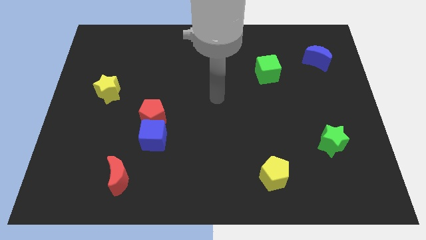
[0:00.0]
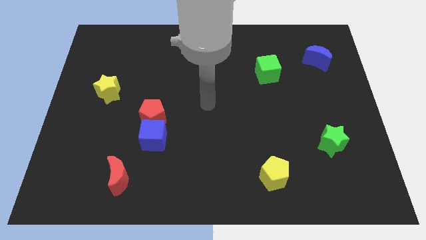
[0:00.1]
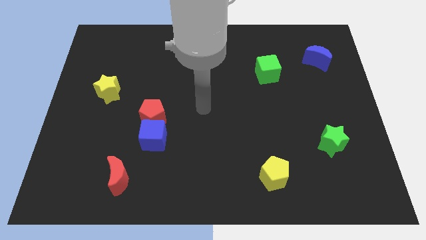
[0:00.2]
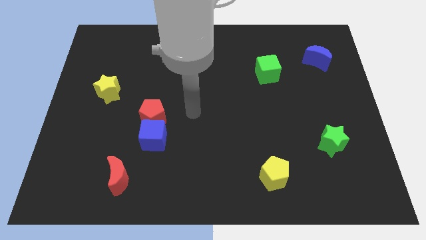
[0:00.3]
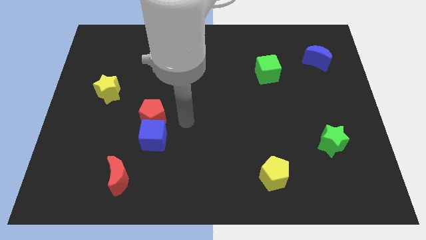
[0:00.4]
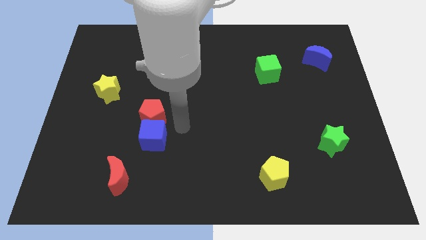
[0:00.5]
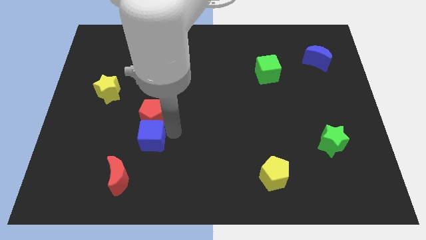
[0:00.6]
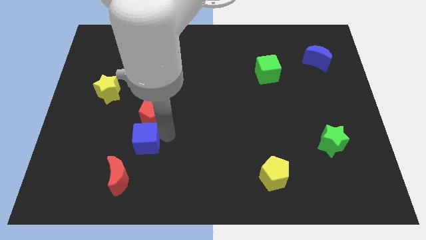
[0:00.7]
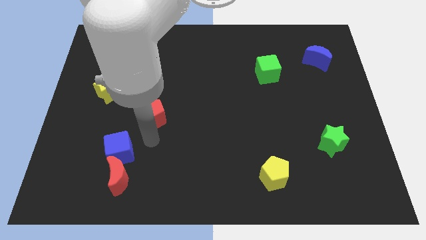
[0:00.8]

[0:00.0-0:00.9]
move the red pentagon away from the blue cube

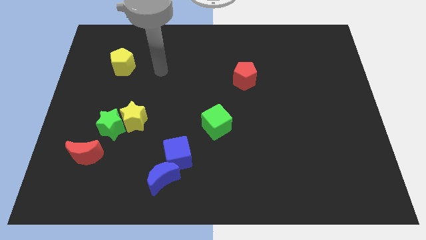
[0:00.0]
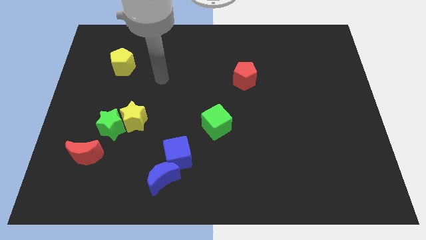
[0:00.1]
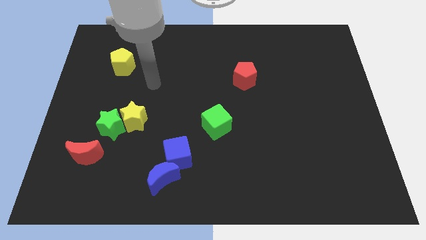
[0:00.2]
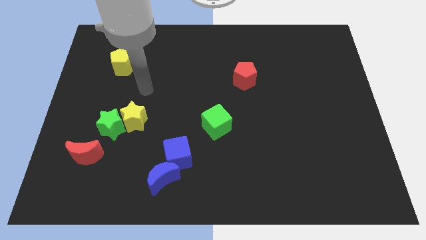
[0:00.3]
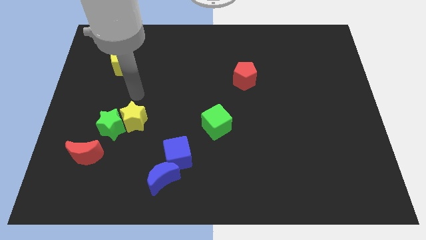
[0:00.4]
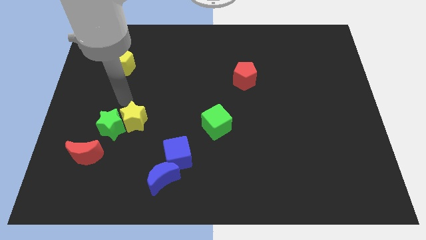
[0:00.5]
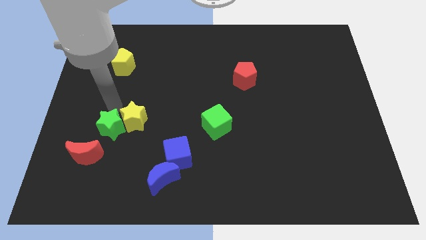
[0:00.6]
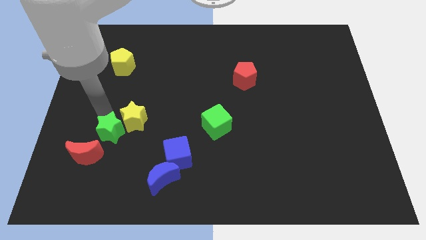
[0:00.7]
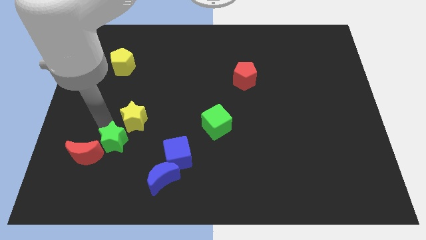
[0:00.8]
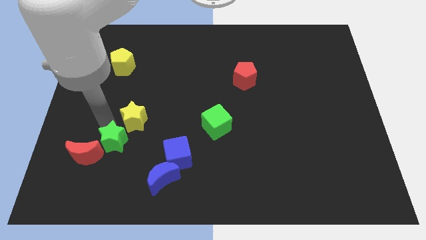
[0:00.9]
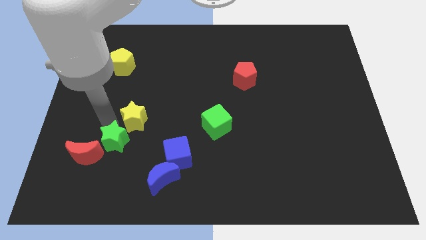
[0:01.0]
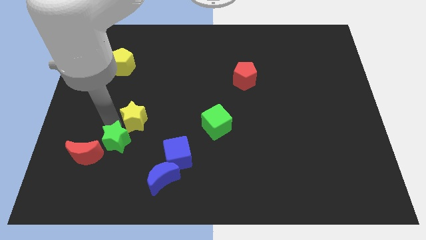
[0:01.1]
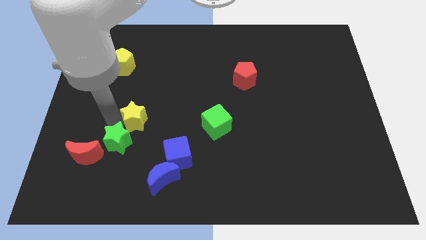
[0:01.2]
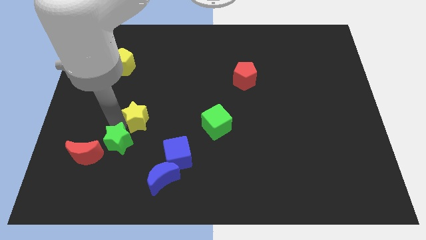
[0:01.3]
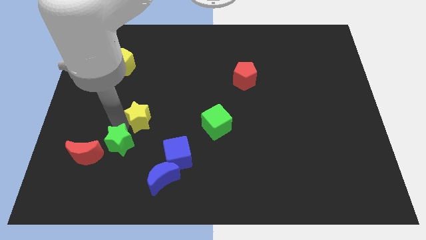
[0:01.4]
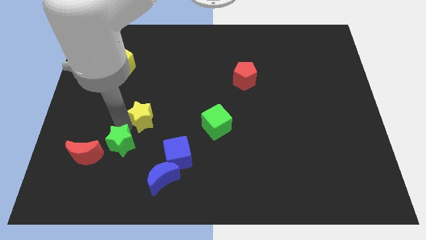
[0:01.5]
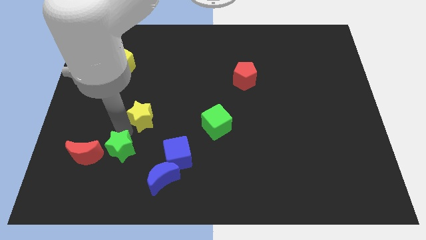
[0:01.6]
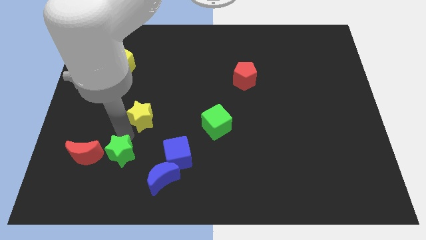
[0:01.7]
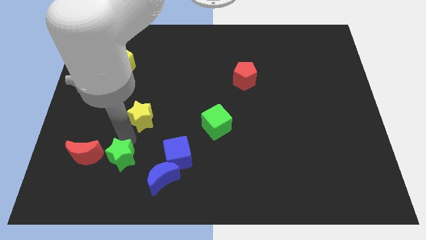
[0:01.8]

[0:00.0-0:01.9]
move the yellow star away from the green star

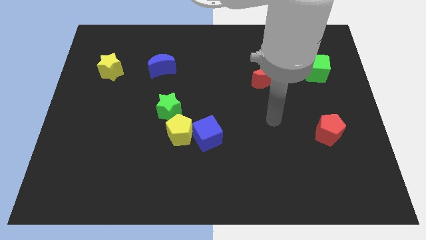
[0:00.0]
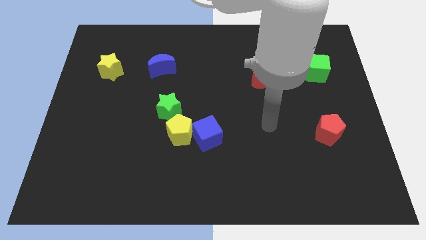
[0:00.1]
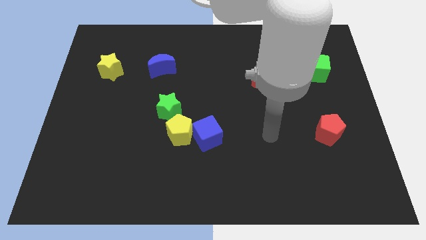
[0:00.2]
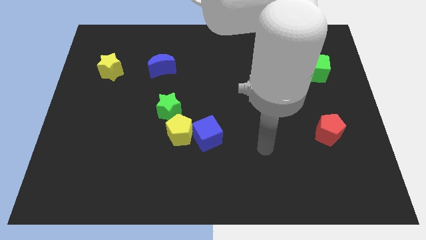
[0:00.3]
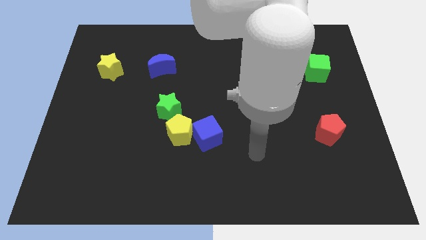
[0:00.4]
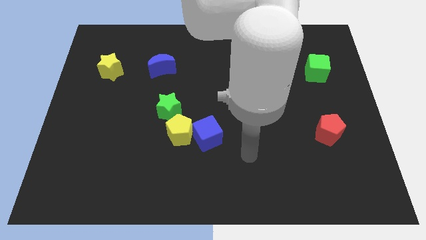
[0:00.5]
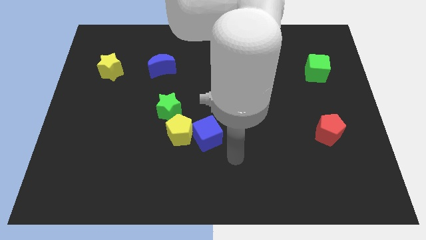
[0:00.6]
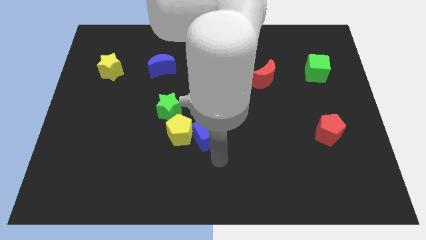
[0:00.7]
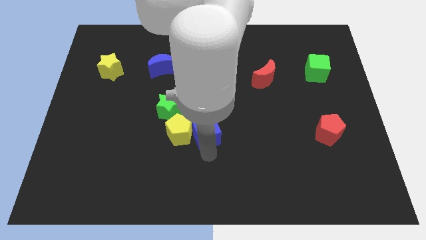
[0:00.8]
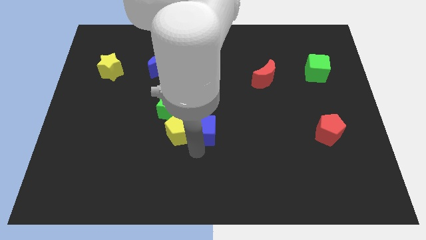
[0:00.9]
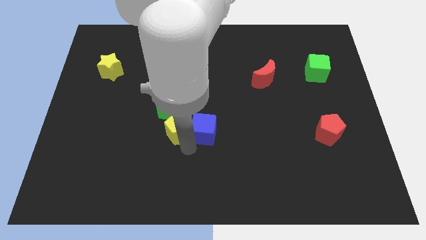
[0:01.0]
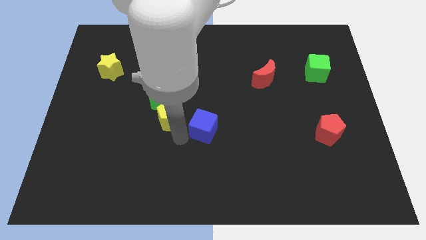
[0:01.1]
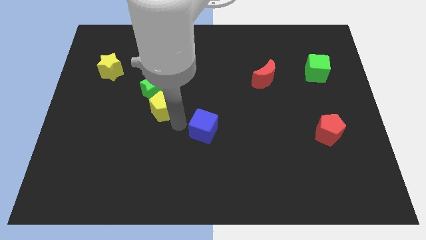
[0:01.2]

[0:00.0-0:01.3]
separate the blue cube from the yellow pentagon

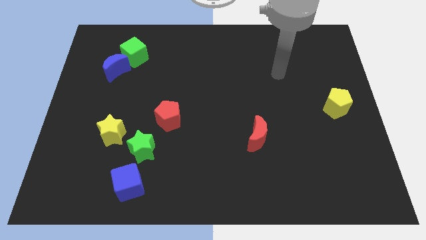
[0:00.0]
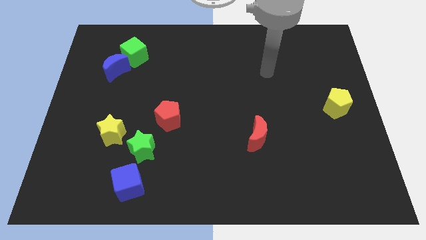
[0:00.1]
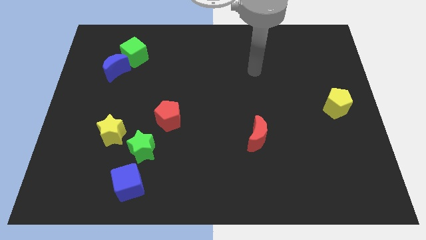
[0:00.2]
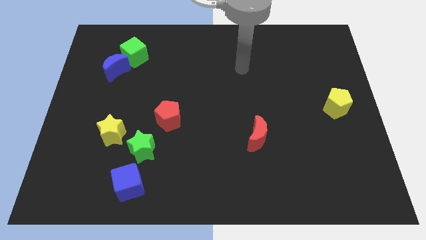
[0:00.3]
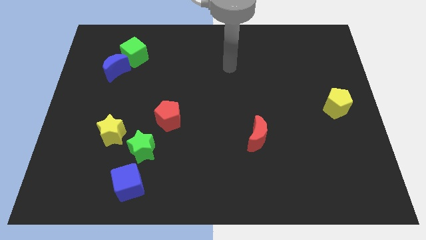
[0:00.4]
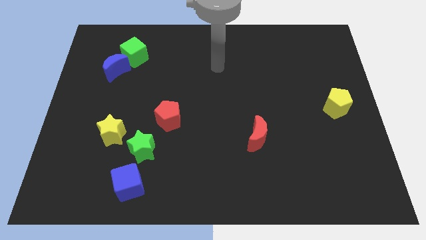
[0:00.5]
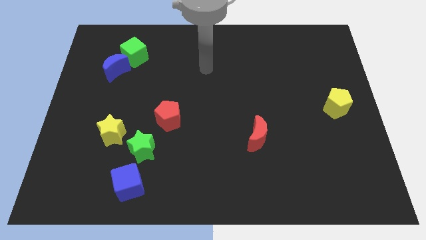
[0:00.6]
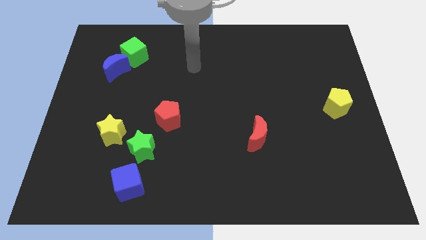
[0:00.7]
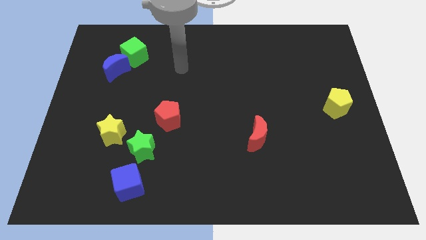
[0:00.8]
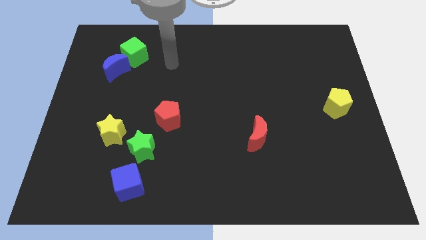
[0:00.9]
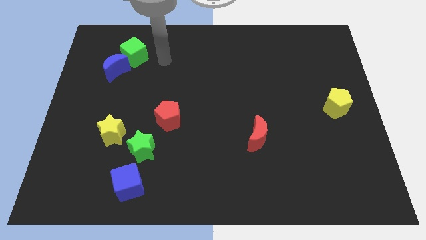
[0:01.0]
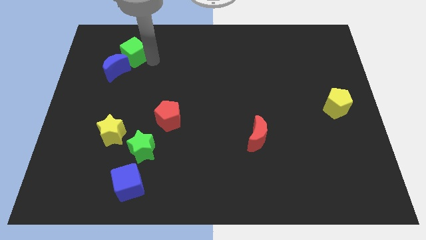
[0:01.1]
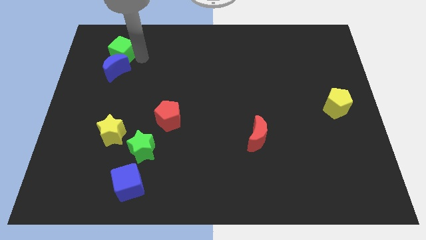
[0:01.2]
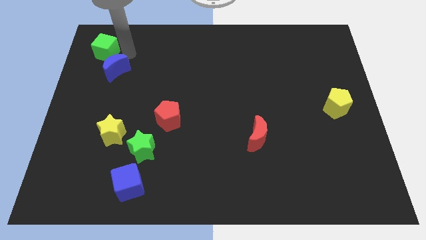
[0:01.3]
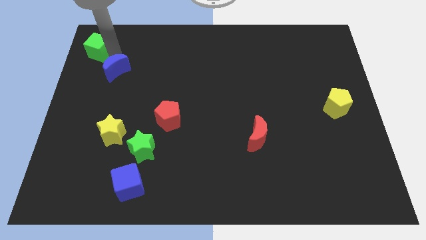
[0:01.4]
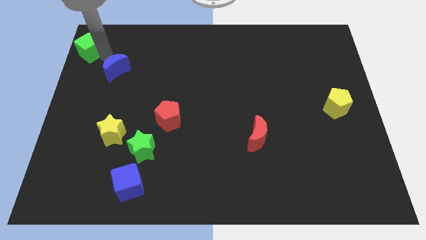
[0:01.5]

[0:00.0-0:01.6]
separate the blue moon from the green cube

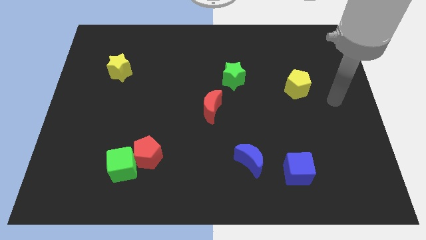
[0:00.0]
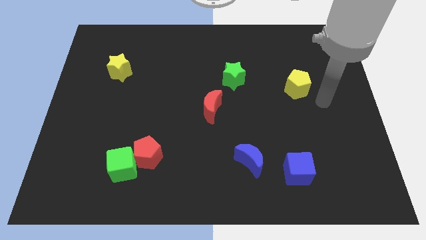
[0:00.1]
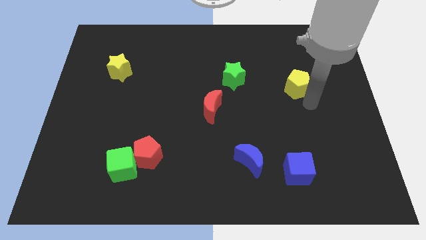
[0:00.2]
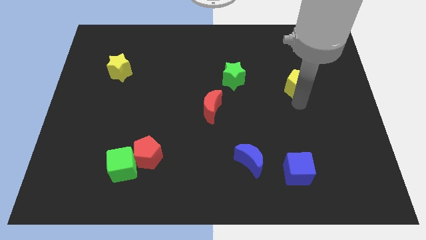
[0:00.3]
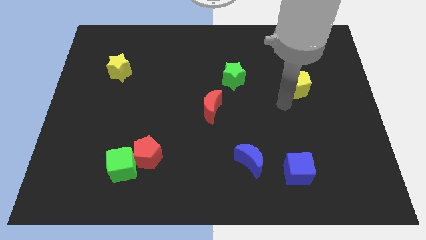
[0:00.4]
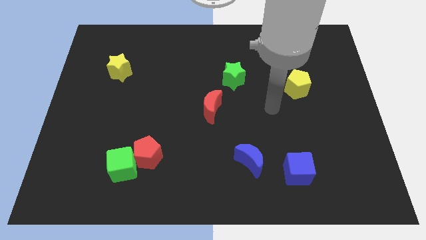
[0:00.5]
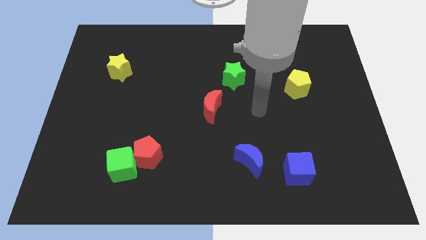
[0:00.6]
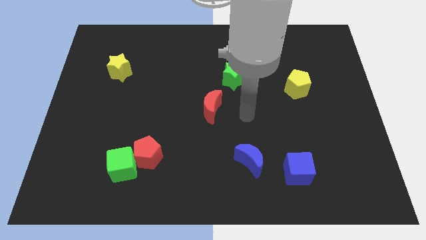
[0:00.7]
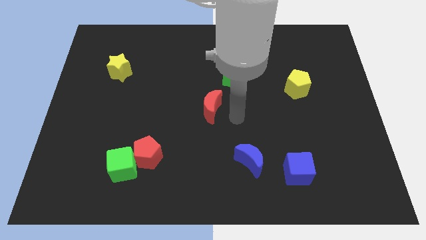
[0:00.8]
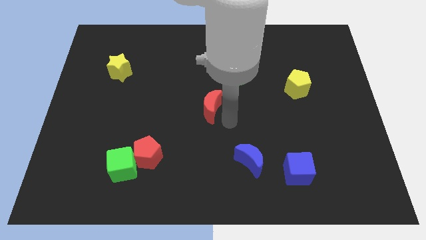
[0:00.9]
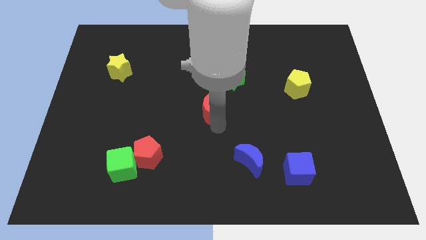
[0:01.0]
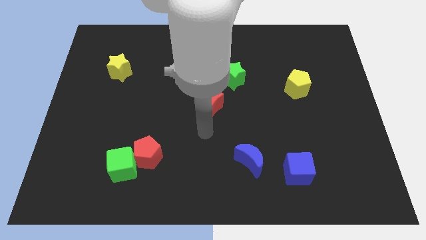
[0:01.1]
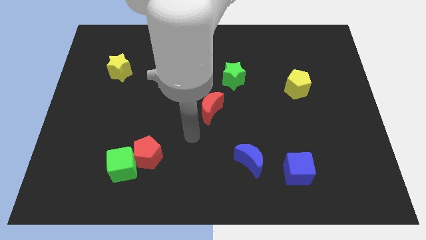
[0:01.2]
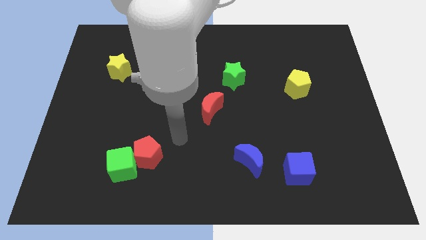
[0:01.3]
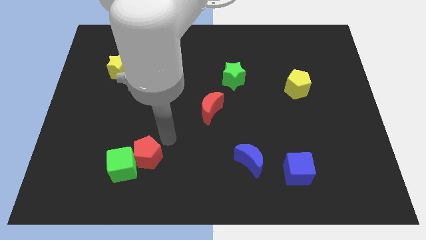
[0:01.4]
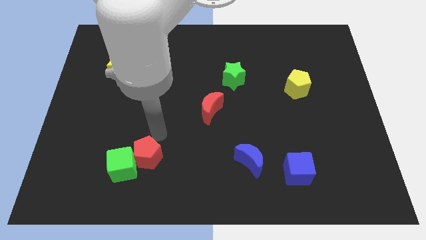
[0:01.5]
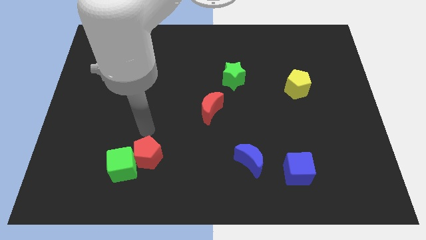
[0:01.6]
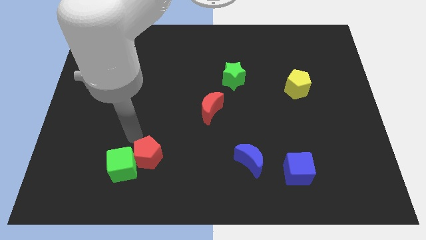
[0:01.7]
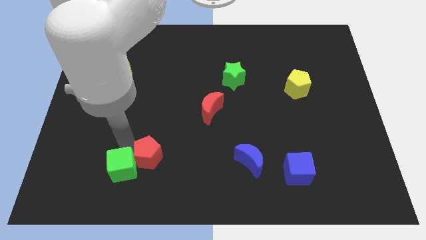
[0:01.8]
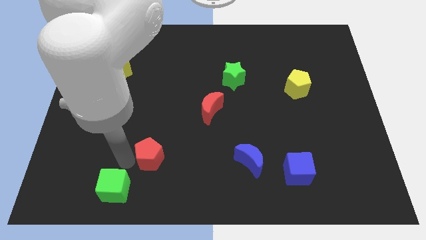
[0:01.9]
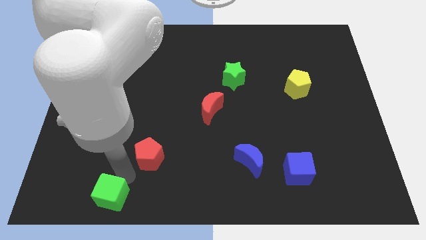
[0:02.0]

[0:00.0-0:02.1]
separate the red pentagon from the green cube

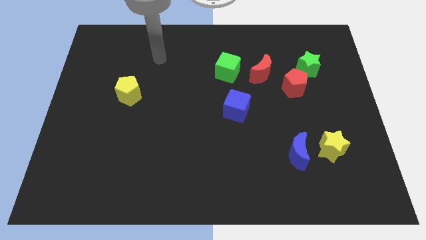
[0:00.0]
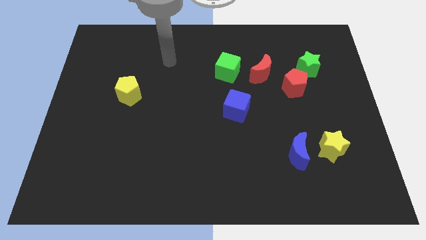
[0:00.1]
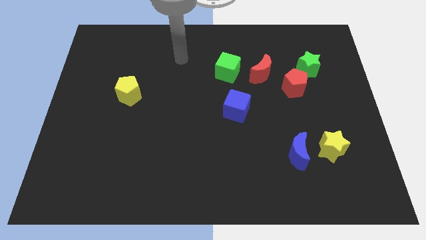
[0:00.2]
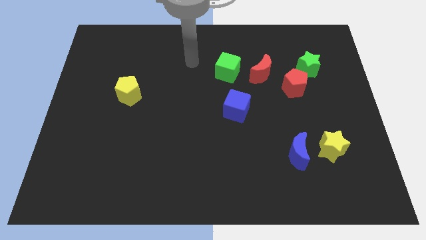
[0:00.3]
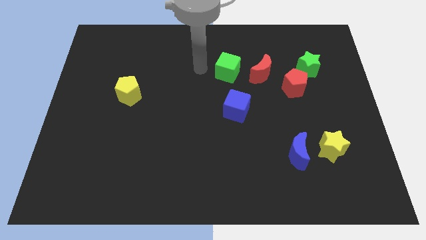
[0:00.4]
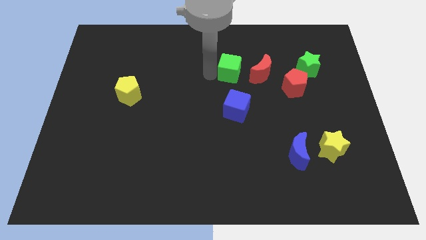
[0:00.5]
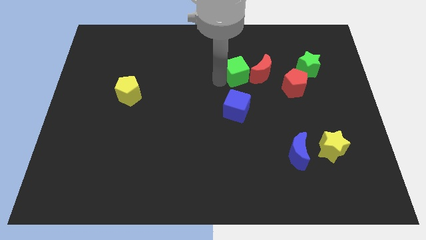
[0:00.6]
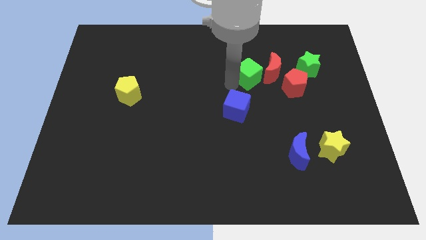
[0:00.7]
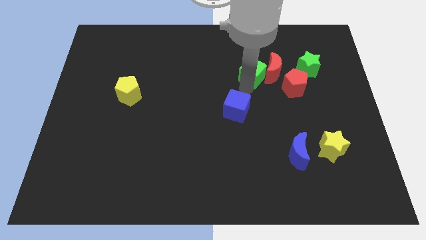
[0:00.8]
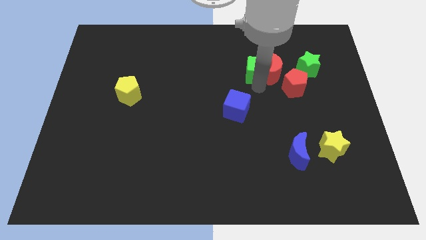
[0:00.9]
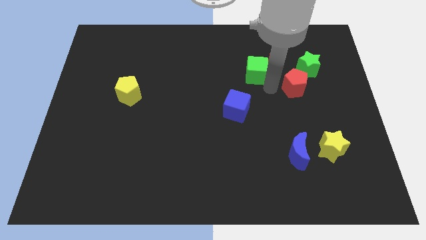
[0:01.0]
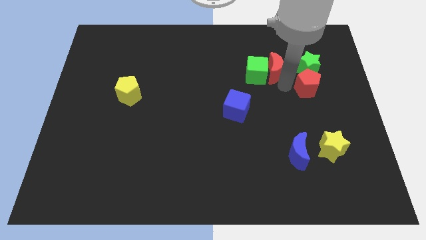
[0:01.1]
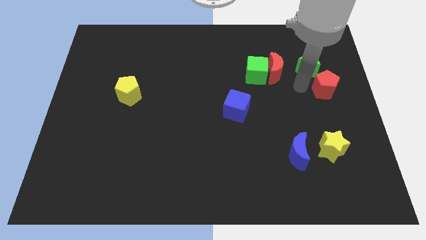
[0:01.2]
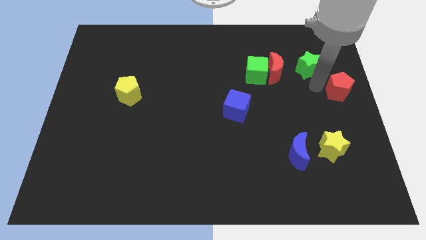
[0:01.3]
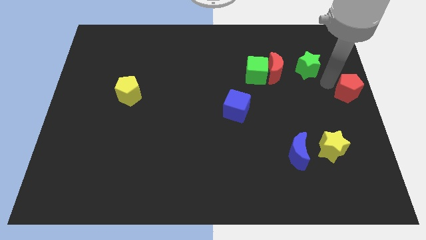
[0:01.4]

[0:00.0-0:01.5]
move the green star away from the red pentagon
